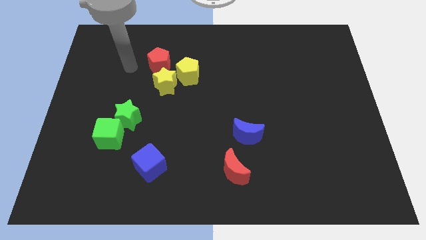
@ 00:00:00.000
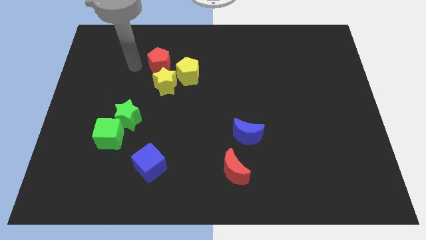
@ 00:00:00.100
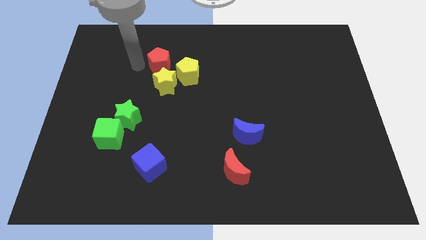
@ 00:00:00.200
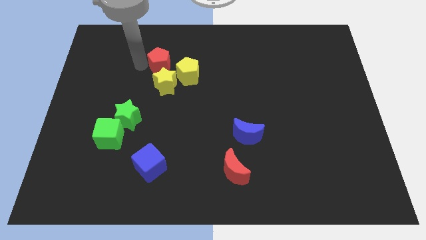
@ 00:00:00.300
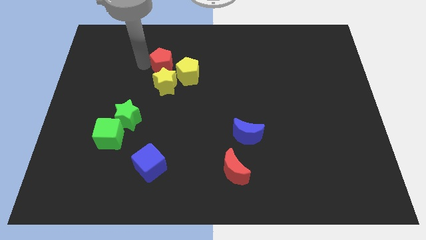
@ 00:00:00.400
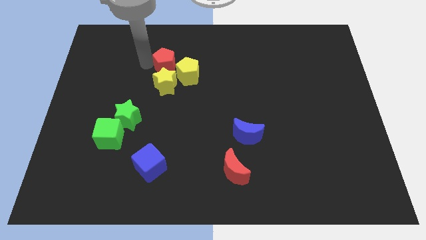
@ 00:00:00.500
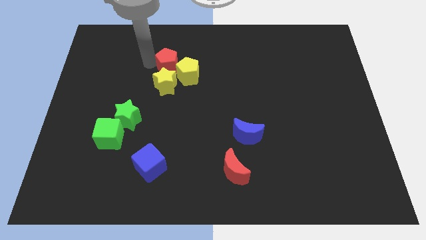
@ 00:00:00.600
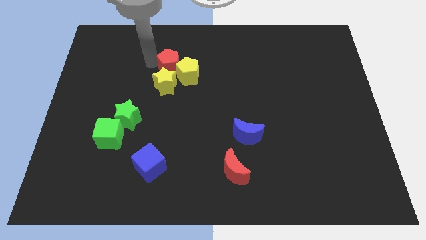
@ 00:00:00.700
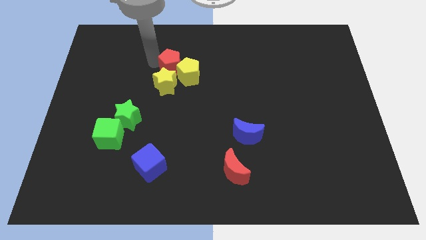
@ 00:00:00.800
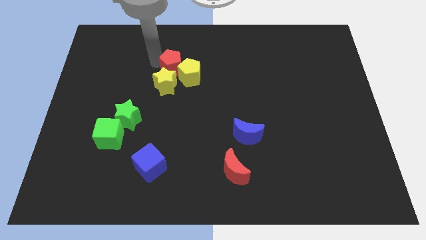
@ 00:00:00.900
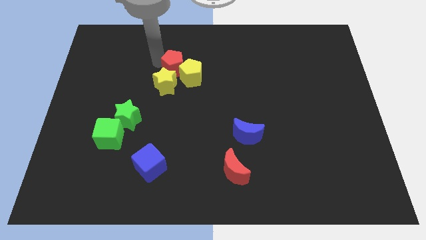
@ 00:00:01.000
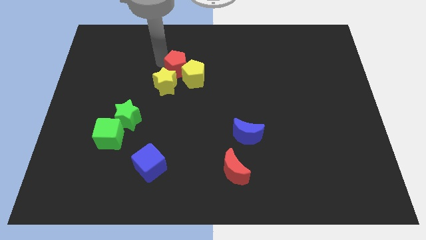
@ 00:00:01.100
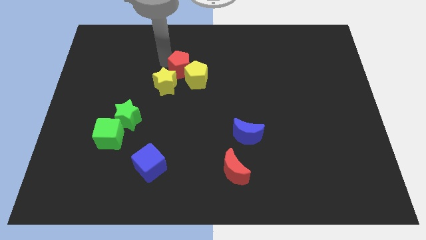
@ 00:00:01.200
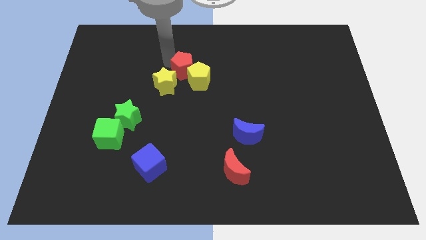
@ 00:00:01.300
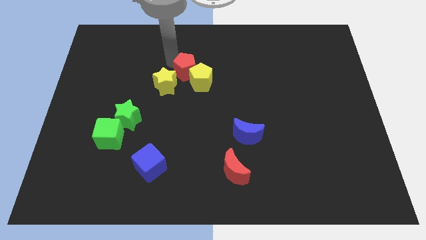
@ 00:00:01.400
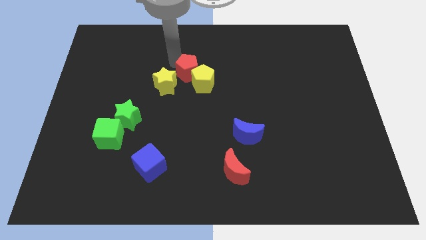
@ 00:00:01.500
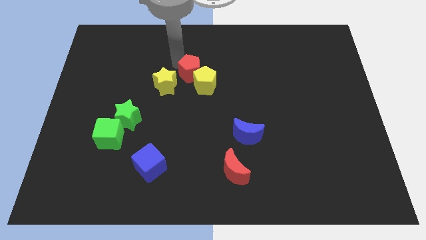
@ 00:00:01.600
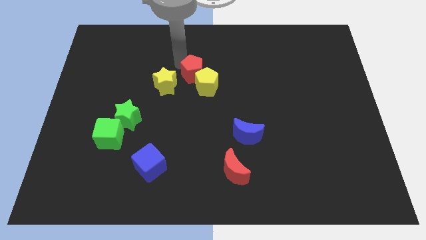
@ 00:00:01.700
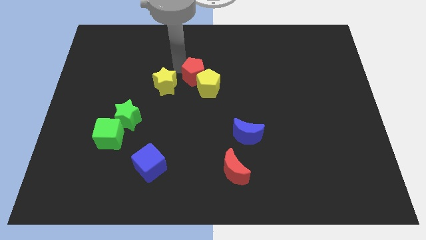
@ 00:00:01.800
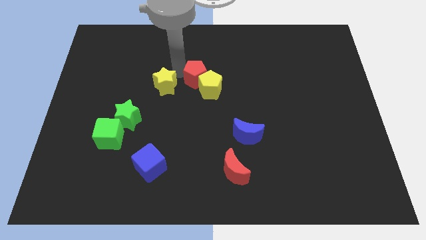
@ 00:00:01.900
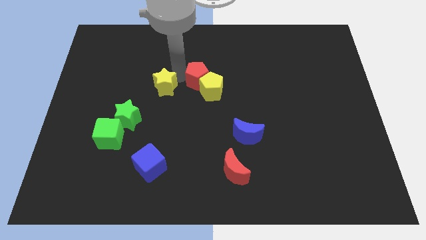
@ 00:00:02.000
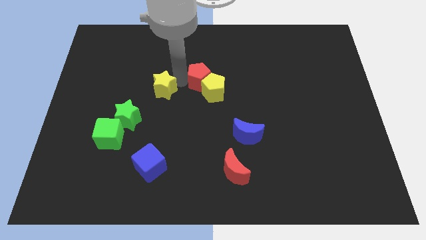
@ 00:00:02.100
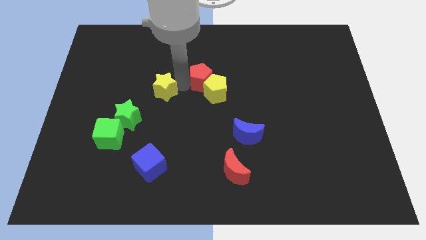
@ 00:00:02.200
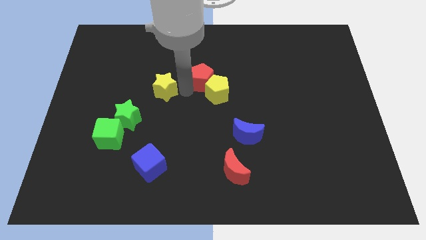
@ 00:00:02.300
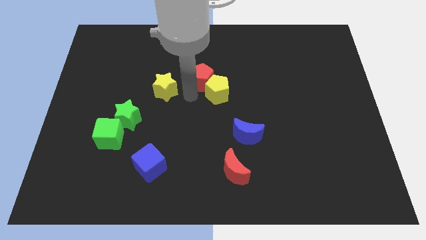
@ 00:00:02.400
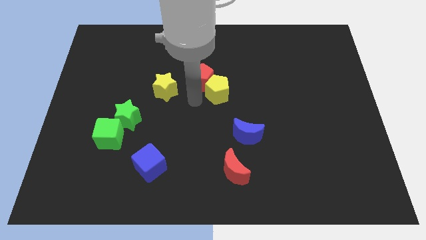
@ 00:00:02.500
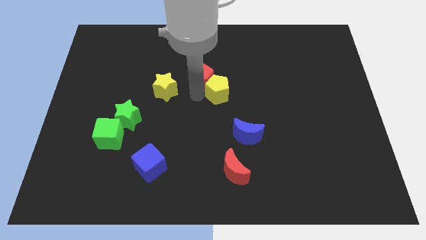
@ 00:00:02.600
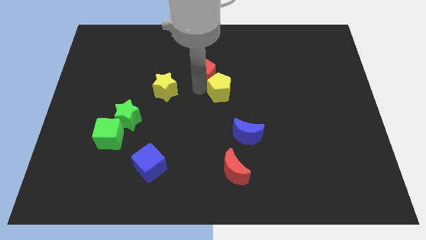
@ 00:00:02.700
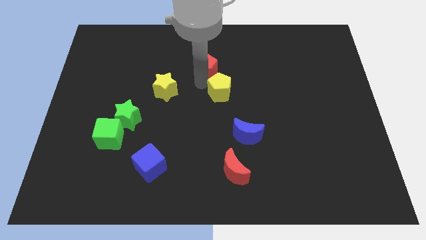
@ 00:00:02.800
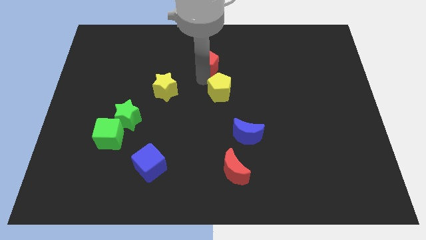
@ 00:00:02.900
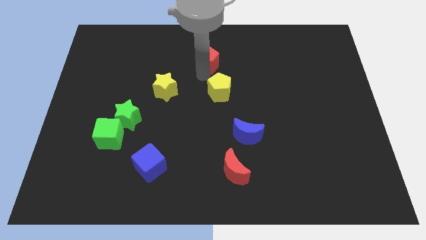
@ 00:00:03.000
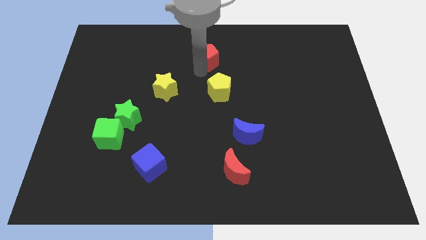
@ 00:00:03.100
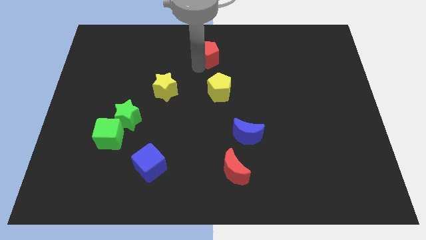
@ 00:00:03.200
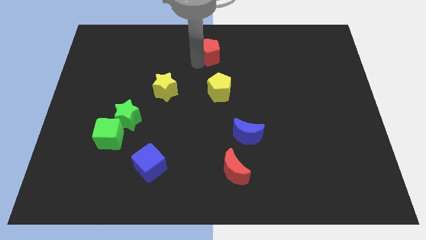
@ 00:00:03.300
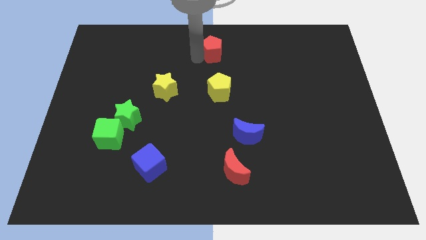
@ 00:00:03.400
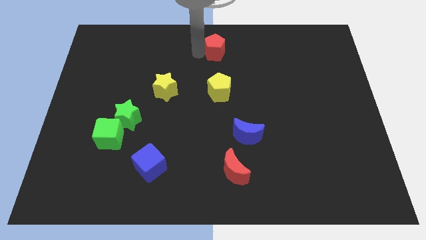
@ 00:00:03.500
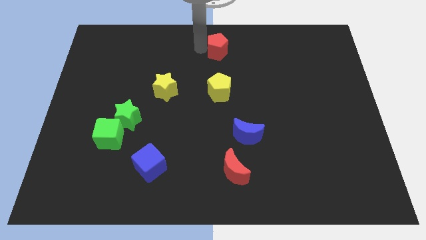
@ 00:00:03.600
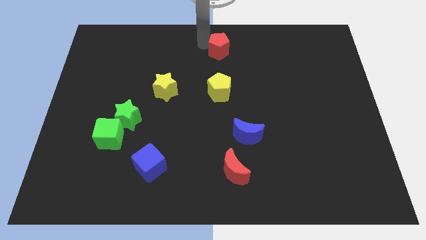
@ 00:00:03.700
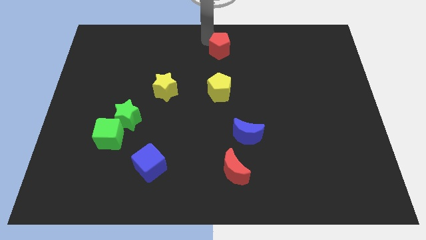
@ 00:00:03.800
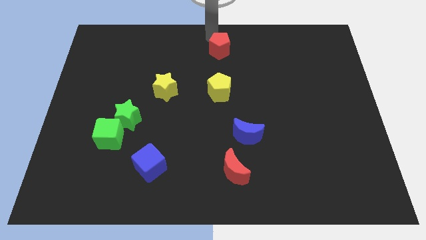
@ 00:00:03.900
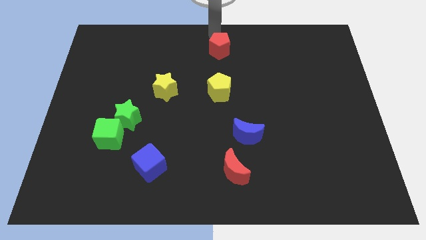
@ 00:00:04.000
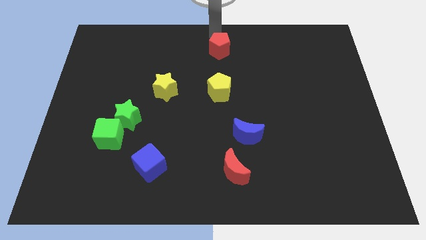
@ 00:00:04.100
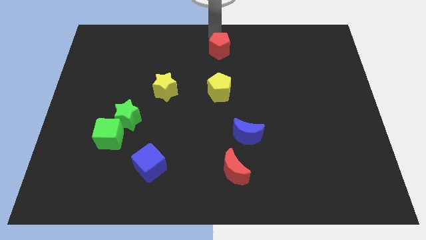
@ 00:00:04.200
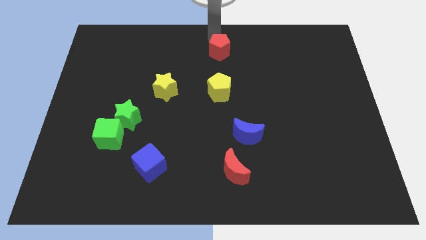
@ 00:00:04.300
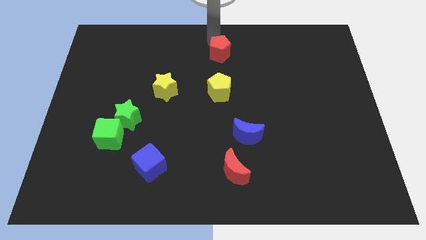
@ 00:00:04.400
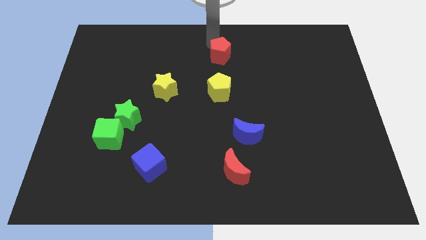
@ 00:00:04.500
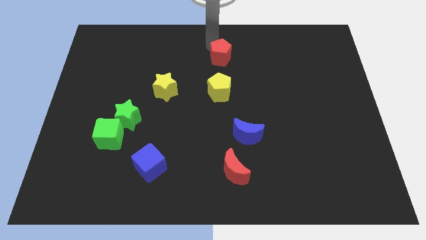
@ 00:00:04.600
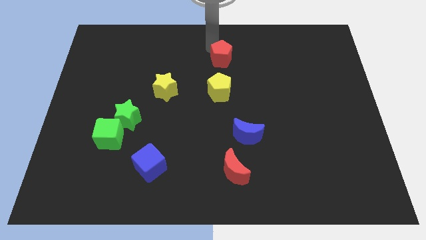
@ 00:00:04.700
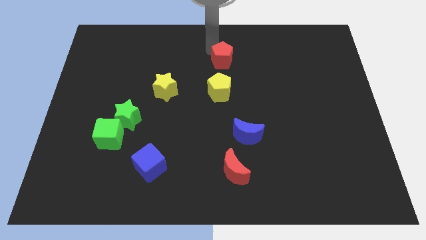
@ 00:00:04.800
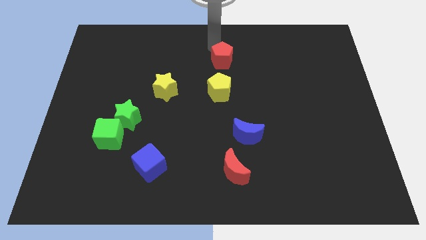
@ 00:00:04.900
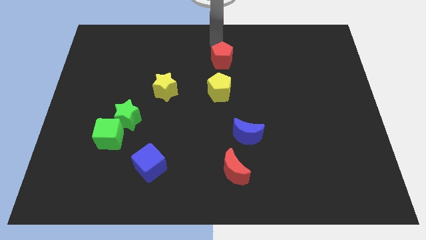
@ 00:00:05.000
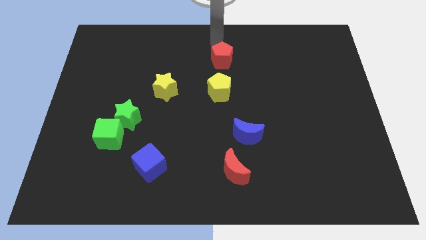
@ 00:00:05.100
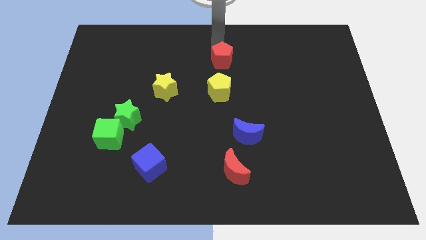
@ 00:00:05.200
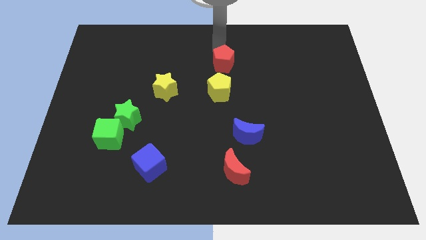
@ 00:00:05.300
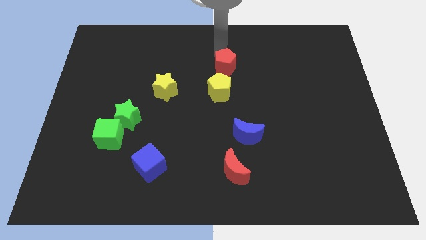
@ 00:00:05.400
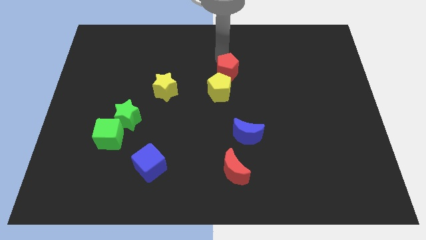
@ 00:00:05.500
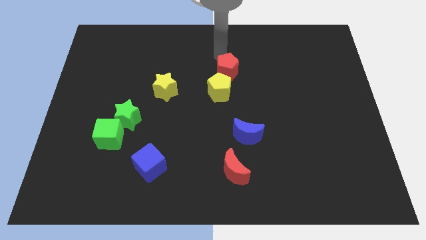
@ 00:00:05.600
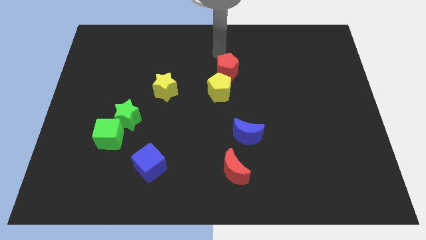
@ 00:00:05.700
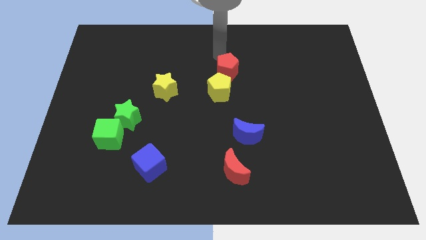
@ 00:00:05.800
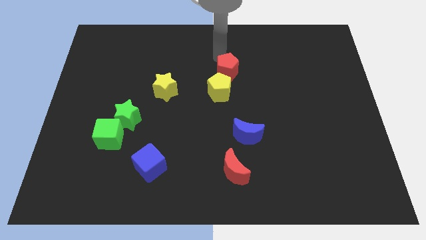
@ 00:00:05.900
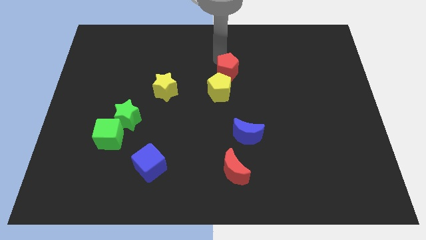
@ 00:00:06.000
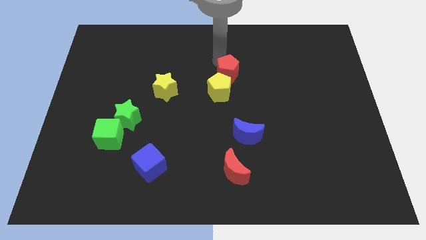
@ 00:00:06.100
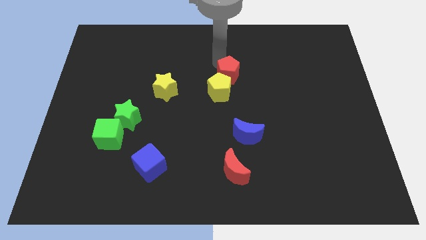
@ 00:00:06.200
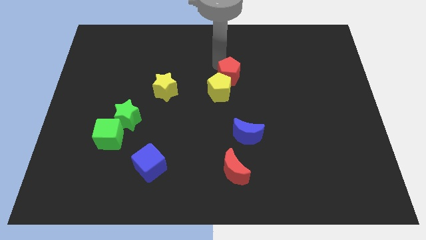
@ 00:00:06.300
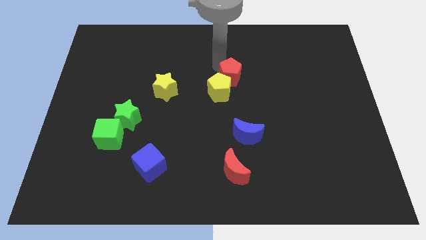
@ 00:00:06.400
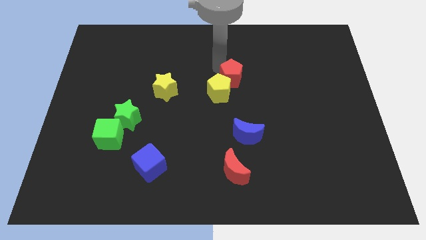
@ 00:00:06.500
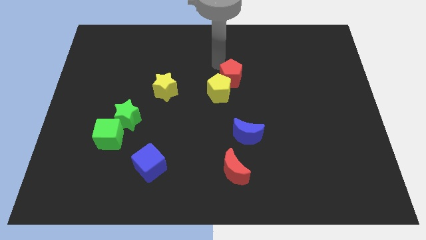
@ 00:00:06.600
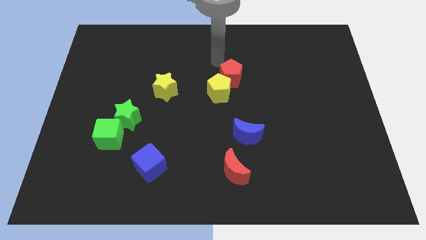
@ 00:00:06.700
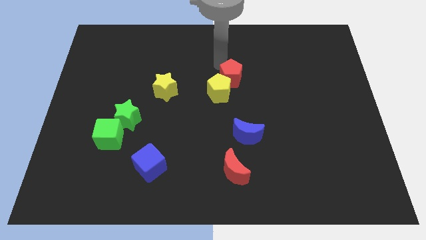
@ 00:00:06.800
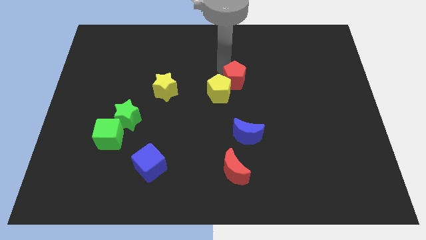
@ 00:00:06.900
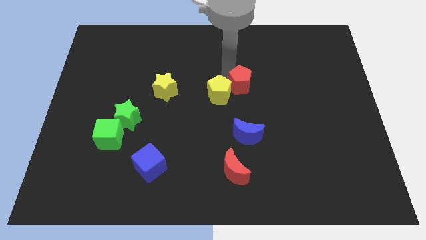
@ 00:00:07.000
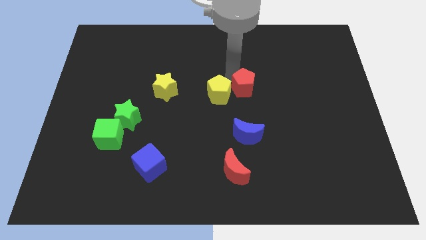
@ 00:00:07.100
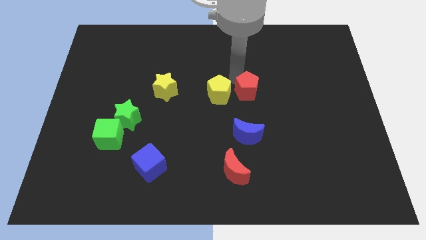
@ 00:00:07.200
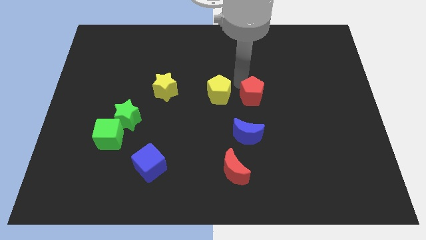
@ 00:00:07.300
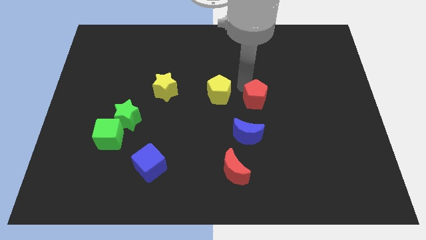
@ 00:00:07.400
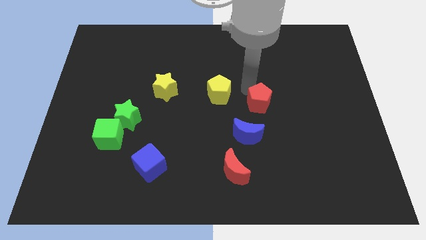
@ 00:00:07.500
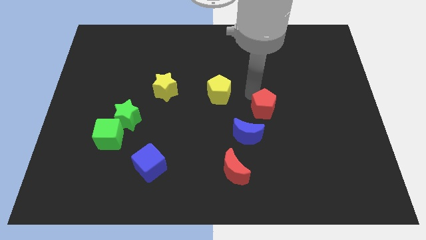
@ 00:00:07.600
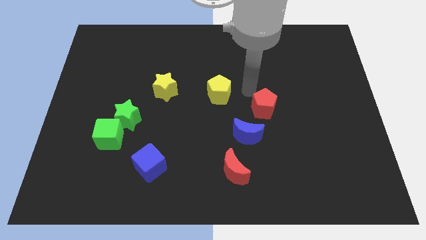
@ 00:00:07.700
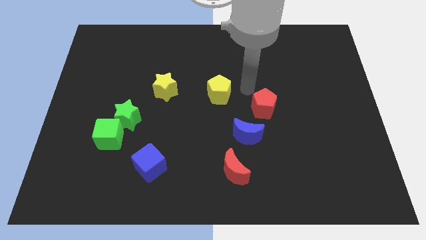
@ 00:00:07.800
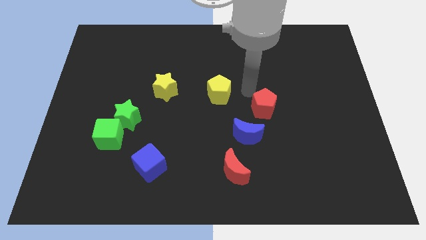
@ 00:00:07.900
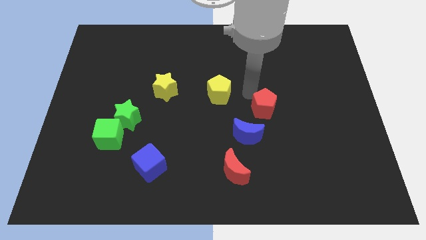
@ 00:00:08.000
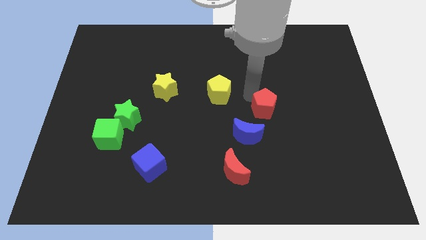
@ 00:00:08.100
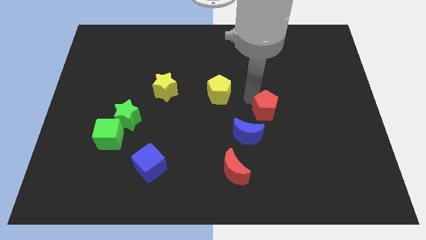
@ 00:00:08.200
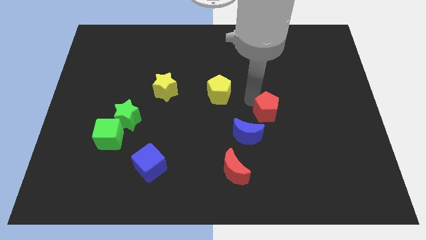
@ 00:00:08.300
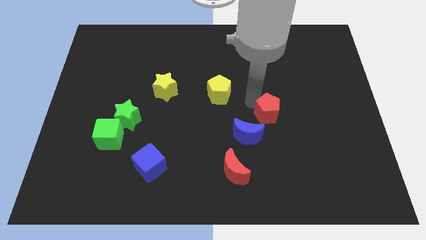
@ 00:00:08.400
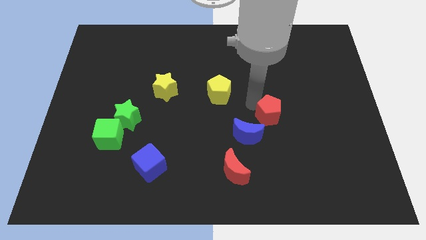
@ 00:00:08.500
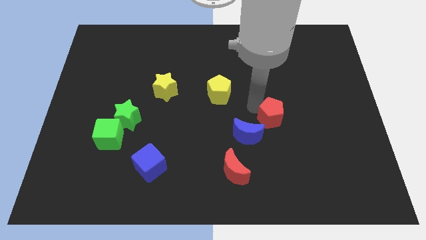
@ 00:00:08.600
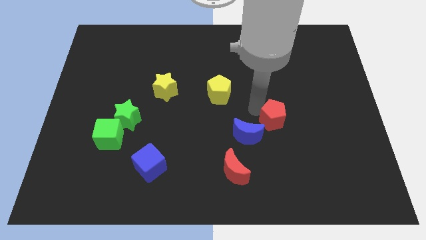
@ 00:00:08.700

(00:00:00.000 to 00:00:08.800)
move the red pentagon to the right side of the blue moon
